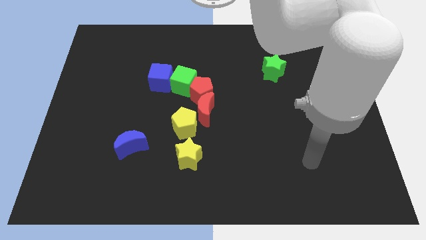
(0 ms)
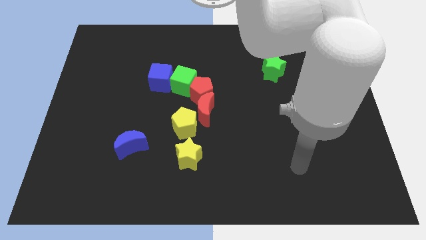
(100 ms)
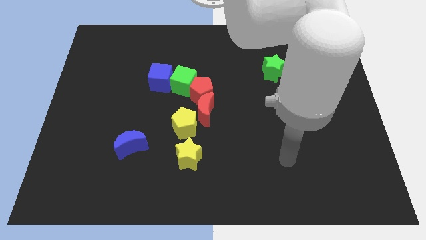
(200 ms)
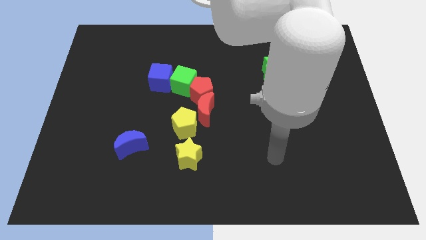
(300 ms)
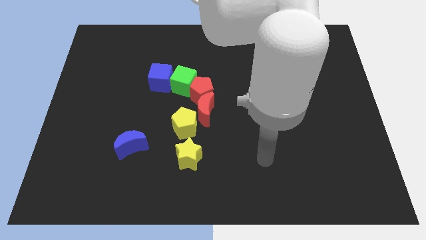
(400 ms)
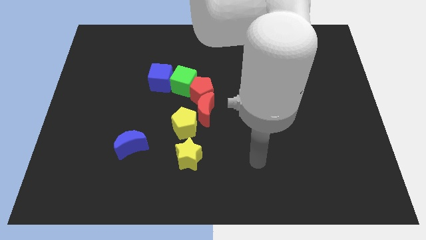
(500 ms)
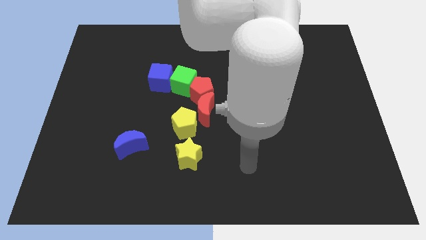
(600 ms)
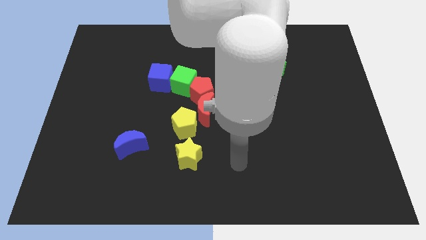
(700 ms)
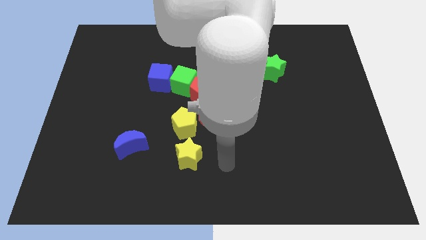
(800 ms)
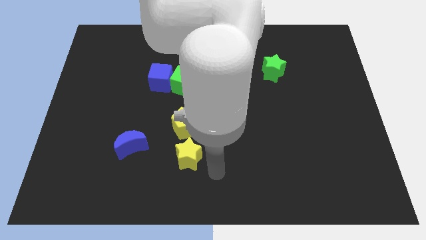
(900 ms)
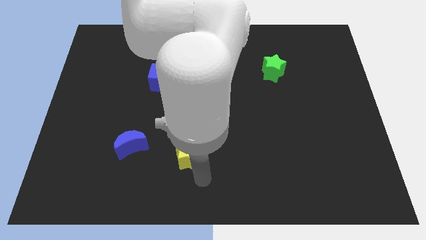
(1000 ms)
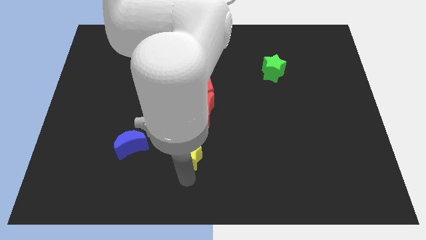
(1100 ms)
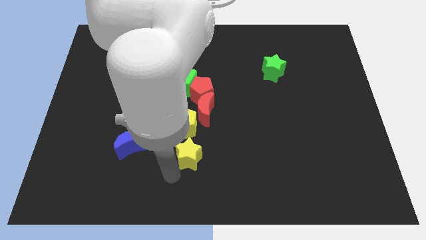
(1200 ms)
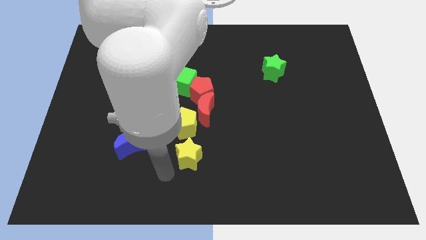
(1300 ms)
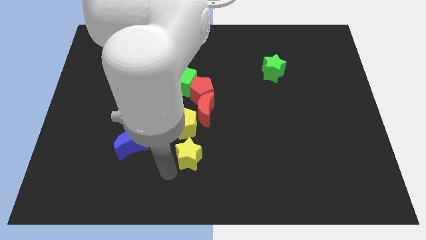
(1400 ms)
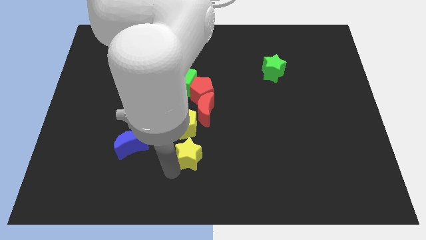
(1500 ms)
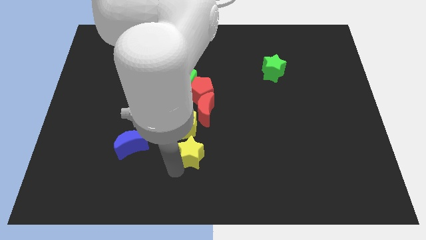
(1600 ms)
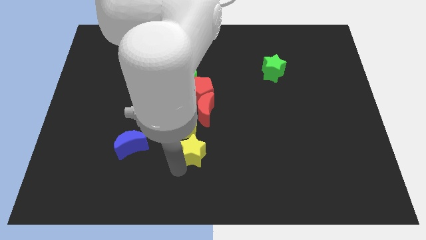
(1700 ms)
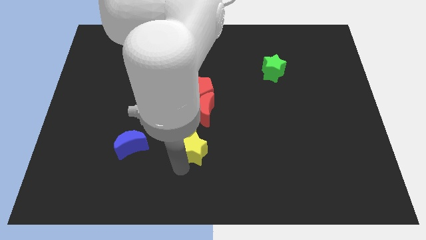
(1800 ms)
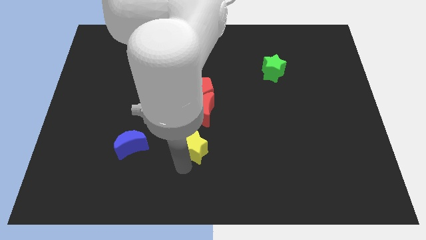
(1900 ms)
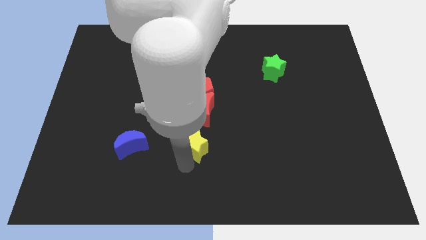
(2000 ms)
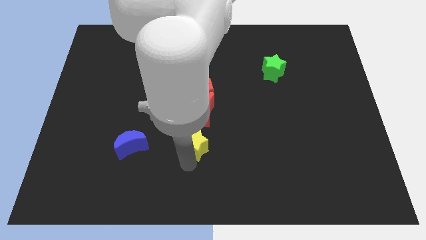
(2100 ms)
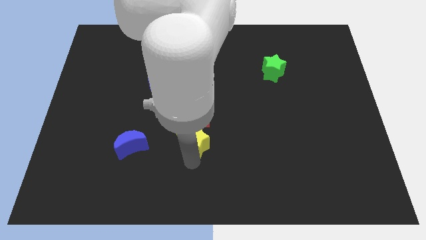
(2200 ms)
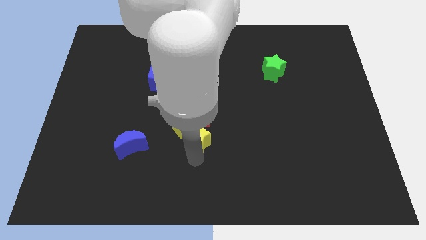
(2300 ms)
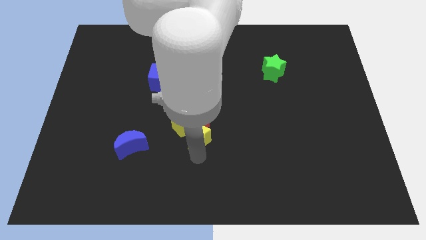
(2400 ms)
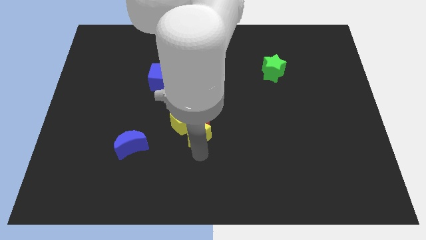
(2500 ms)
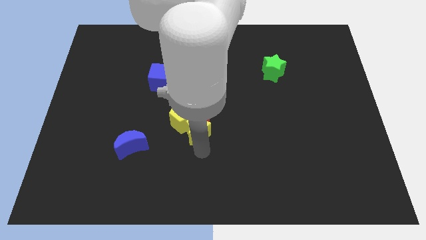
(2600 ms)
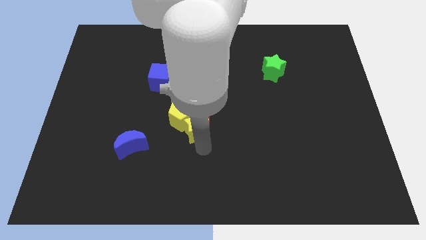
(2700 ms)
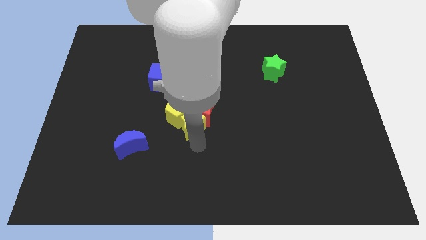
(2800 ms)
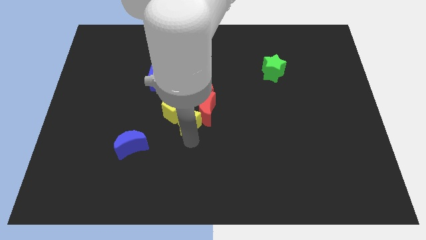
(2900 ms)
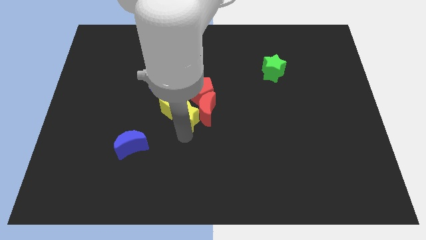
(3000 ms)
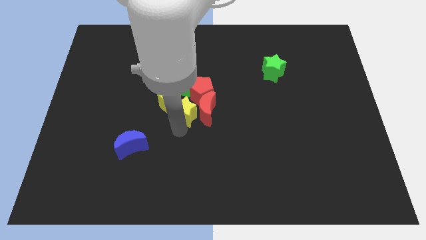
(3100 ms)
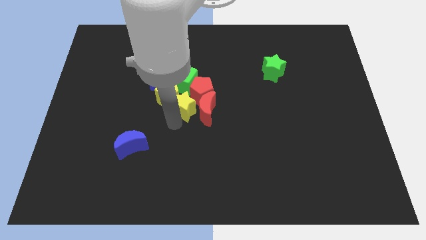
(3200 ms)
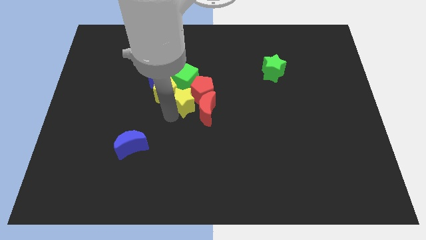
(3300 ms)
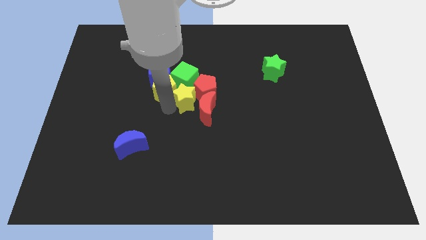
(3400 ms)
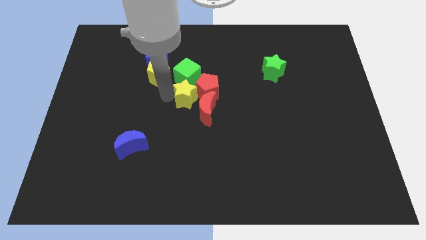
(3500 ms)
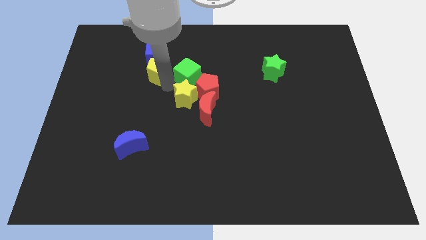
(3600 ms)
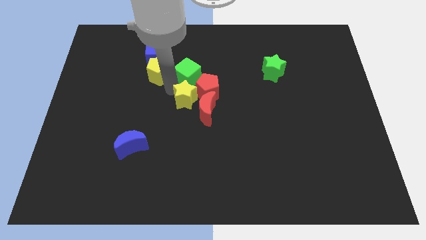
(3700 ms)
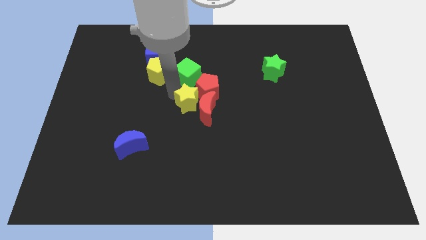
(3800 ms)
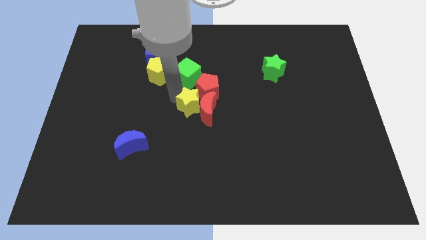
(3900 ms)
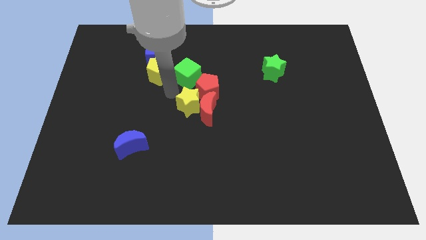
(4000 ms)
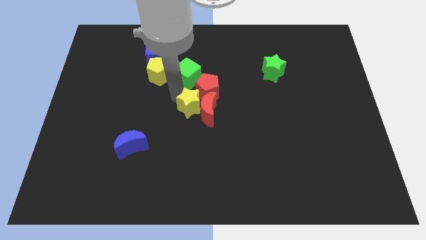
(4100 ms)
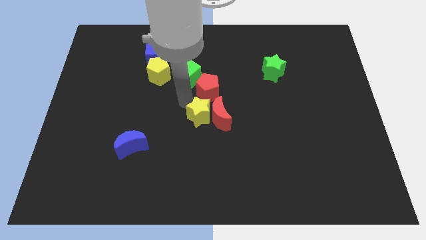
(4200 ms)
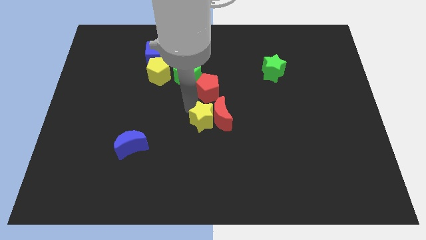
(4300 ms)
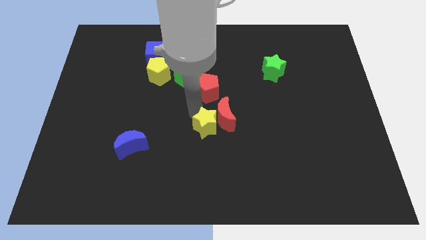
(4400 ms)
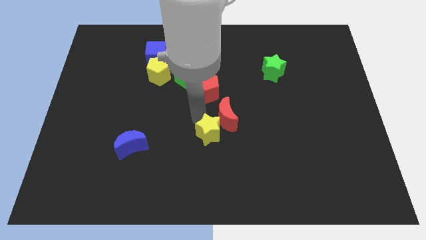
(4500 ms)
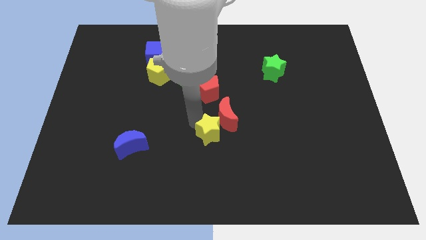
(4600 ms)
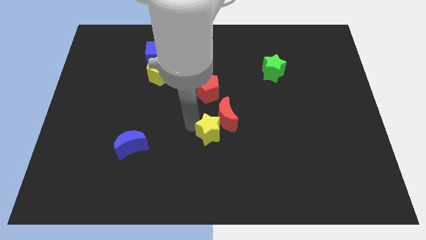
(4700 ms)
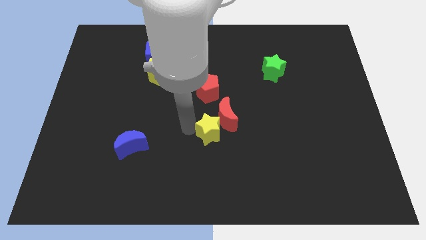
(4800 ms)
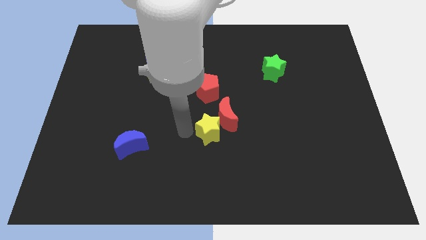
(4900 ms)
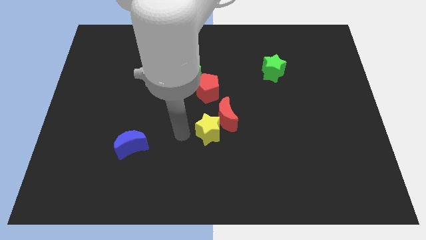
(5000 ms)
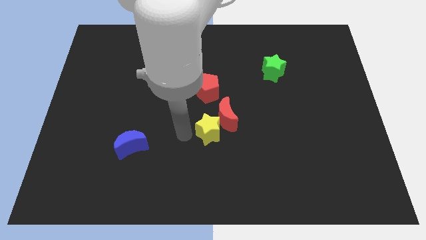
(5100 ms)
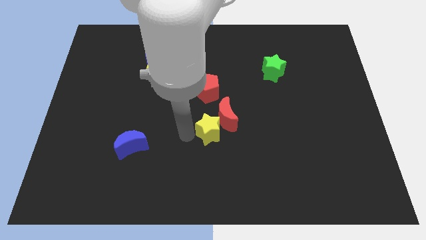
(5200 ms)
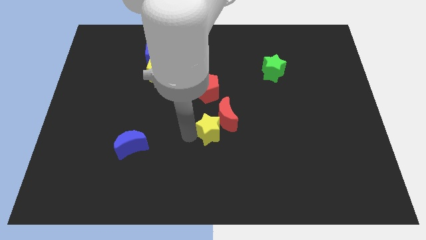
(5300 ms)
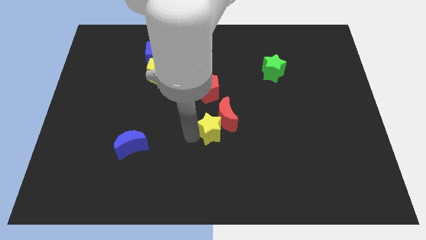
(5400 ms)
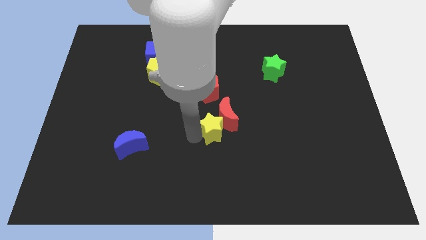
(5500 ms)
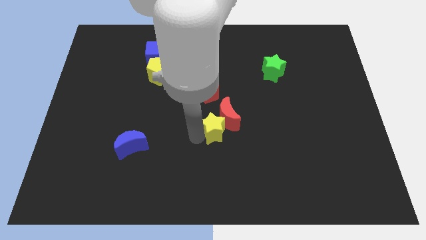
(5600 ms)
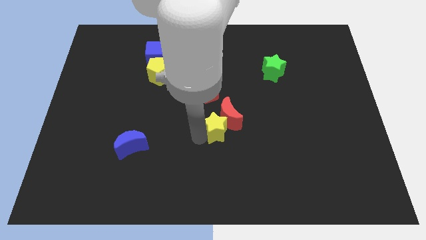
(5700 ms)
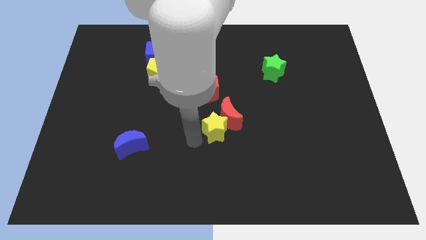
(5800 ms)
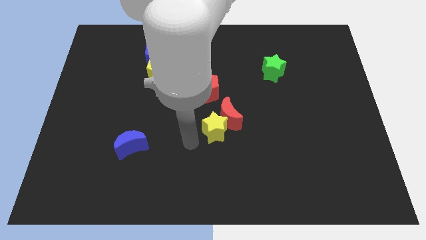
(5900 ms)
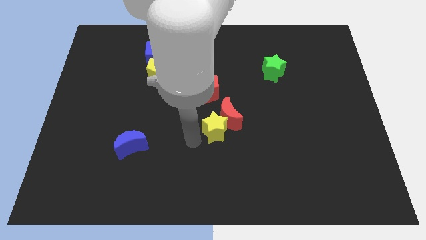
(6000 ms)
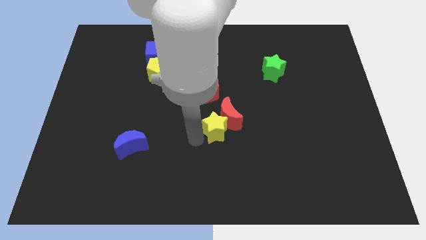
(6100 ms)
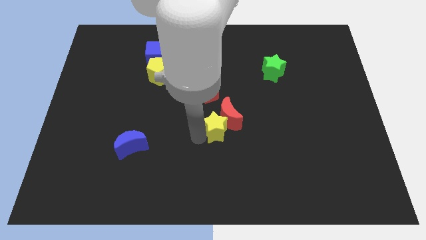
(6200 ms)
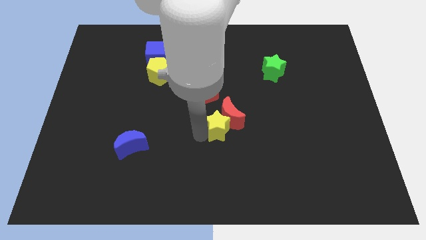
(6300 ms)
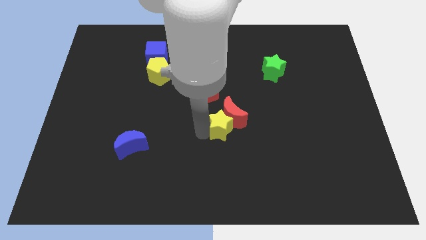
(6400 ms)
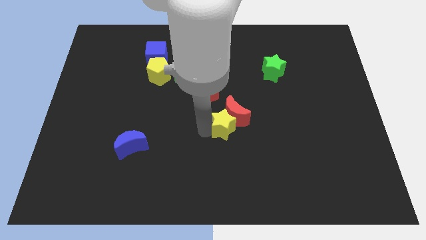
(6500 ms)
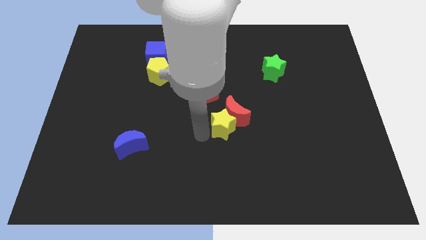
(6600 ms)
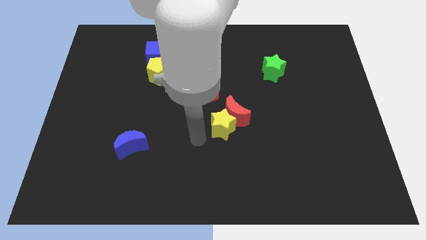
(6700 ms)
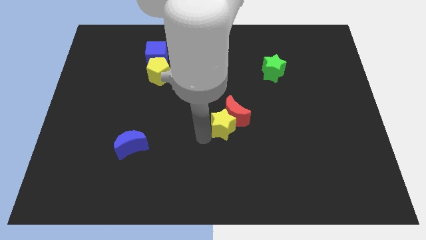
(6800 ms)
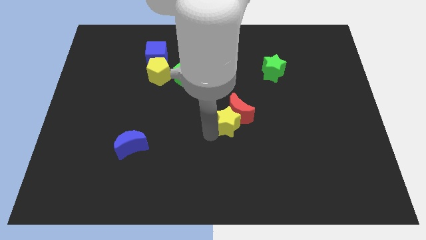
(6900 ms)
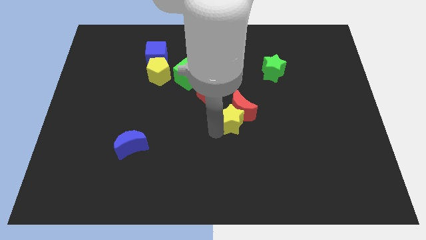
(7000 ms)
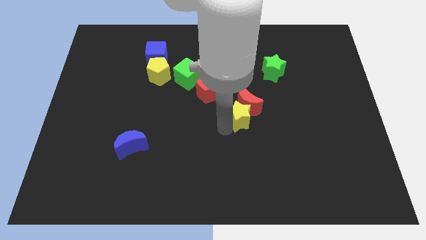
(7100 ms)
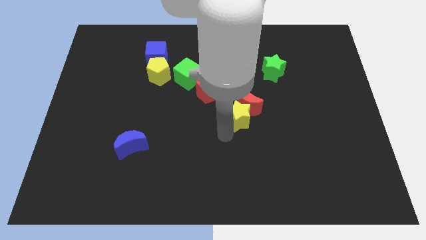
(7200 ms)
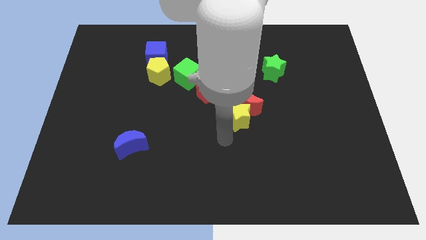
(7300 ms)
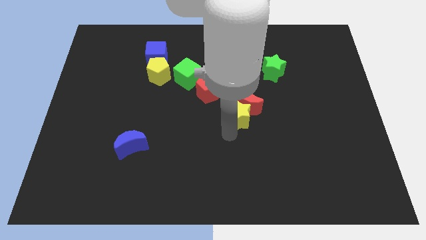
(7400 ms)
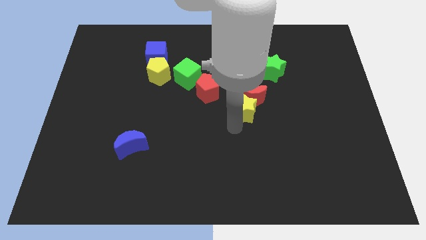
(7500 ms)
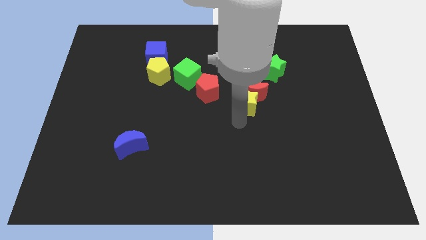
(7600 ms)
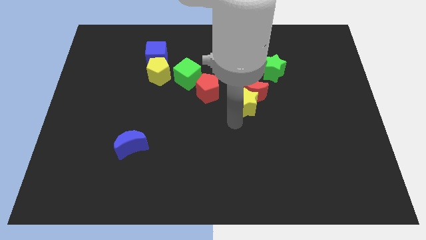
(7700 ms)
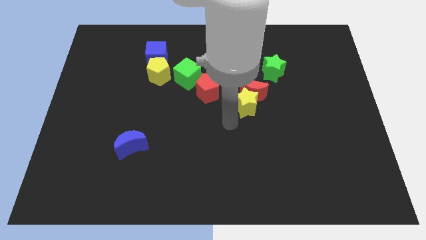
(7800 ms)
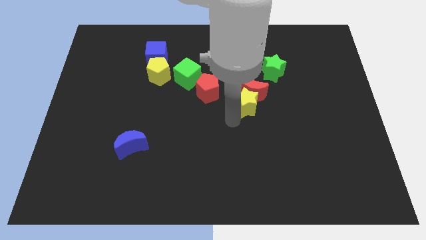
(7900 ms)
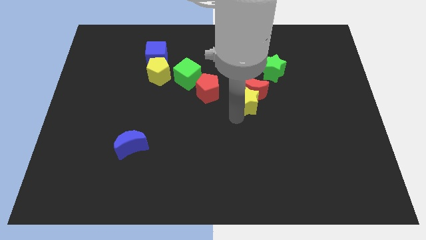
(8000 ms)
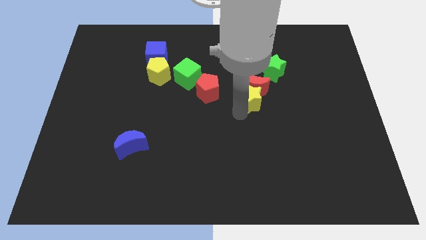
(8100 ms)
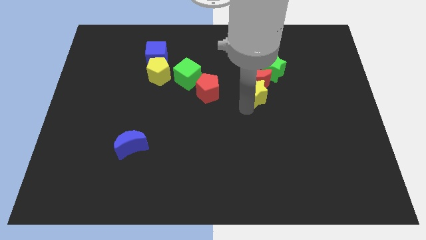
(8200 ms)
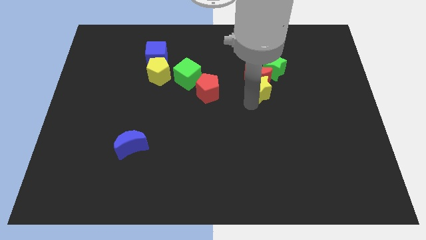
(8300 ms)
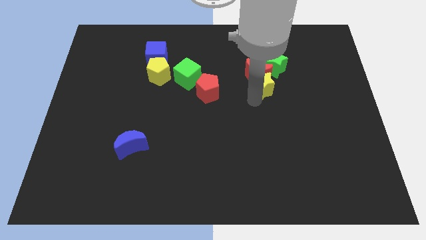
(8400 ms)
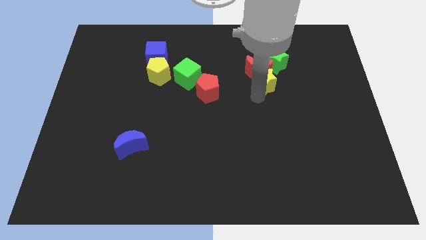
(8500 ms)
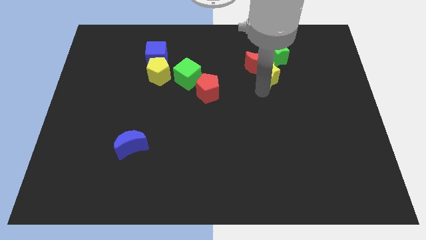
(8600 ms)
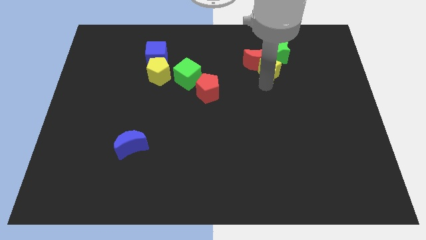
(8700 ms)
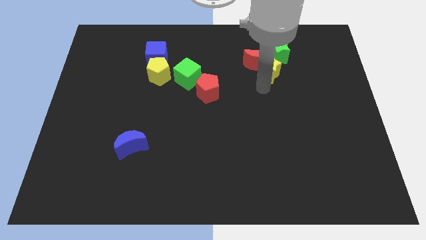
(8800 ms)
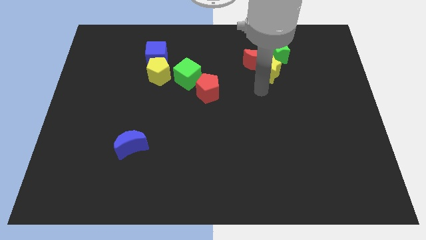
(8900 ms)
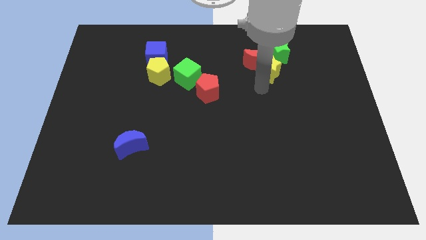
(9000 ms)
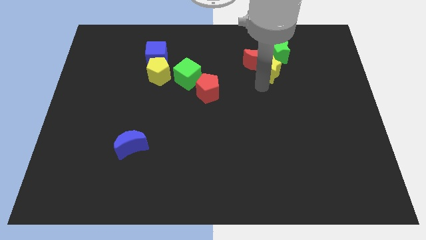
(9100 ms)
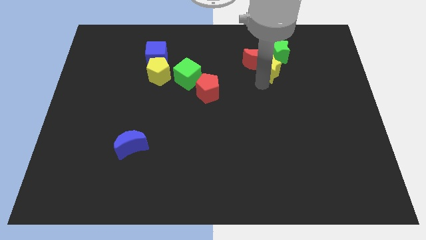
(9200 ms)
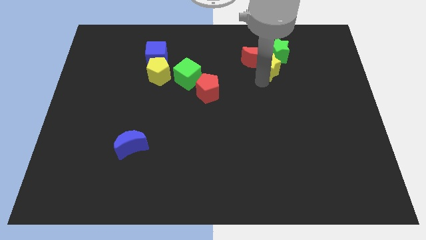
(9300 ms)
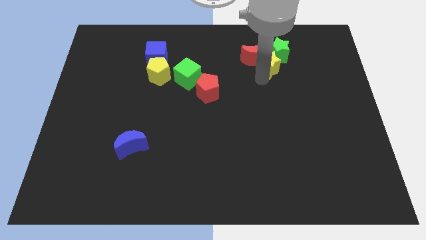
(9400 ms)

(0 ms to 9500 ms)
put the yellow star next to the green star
